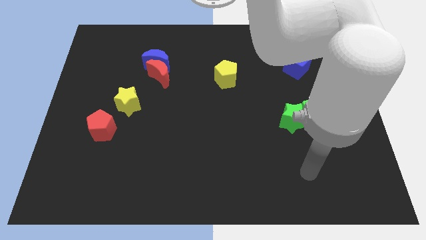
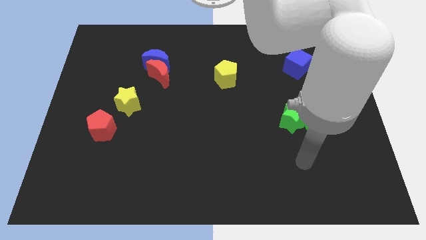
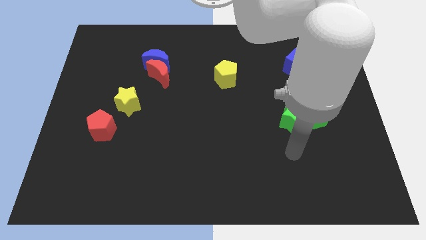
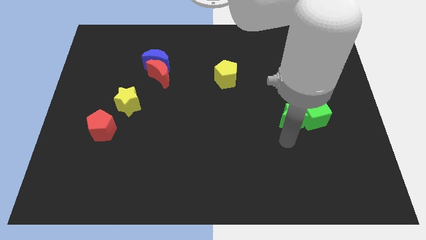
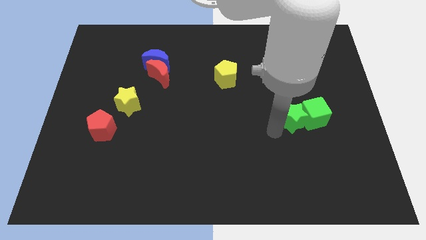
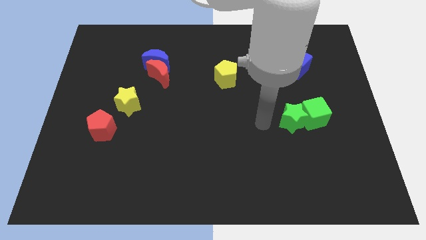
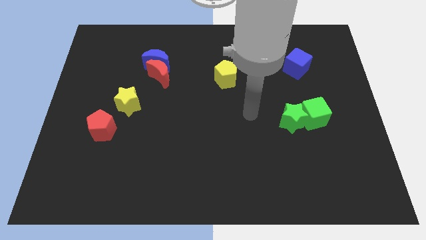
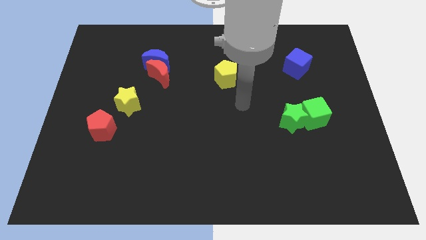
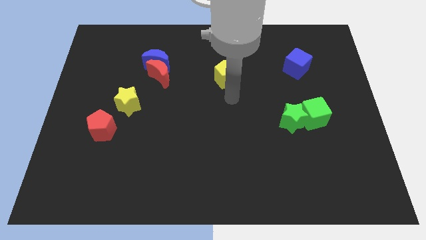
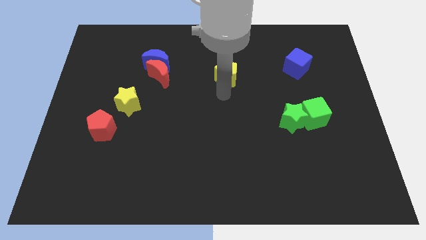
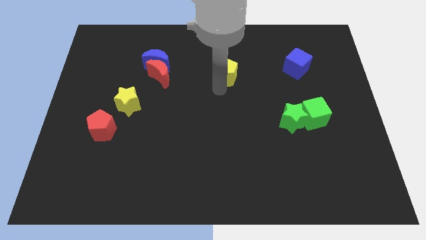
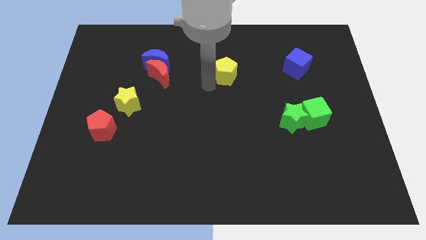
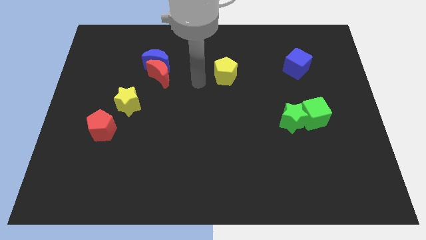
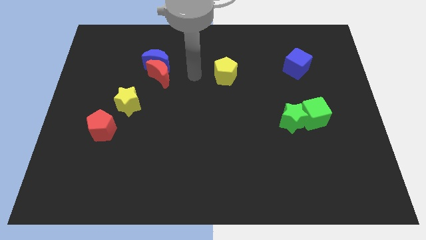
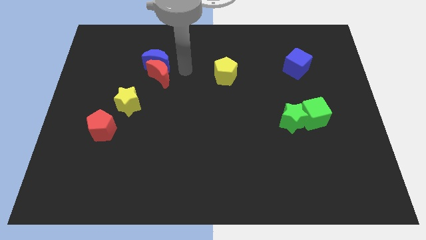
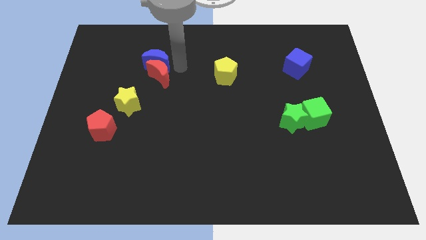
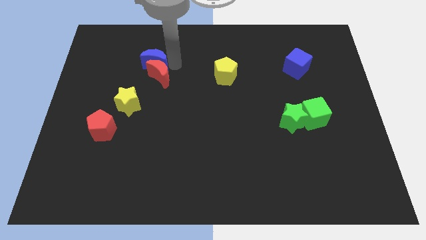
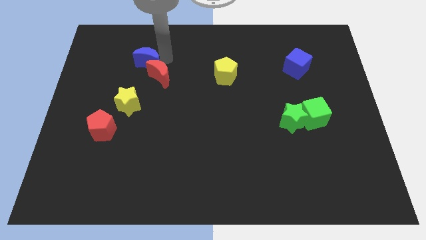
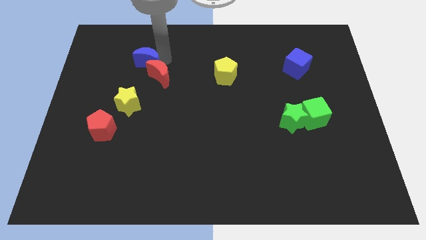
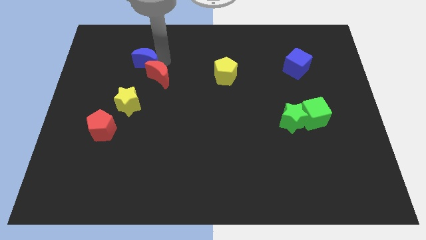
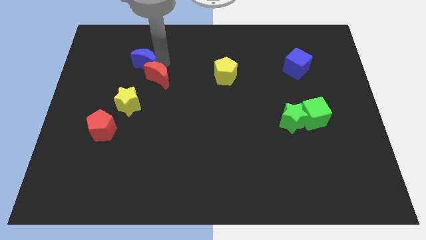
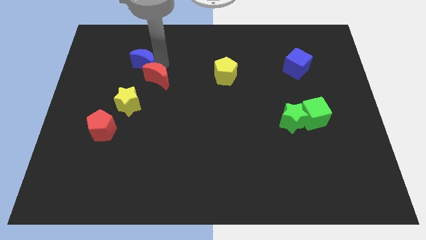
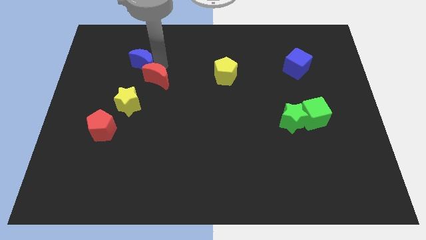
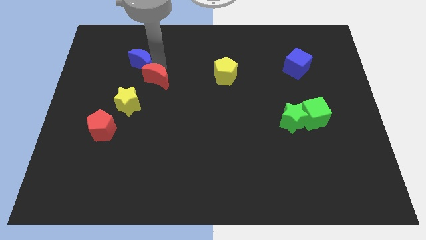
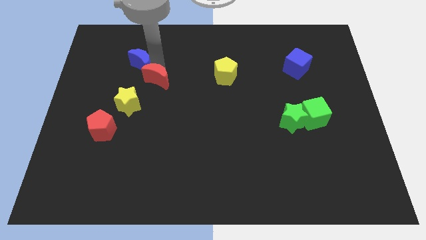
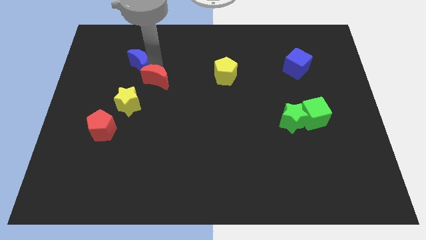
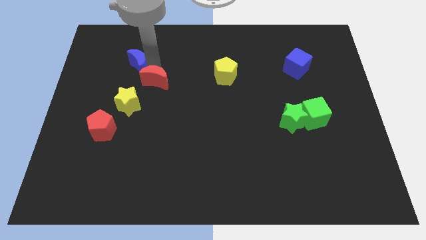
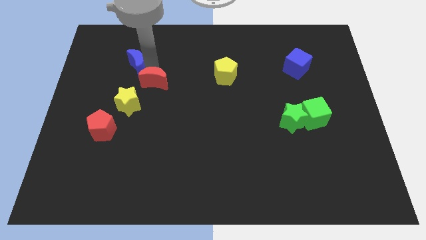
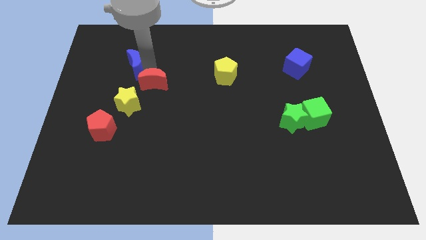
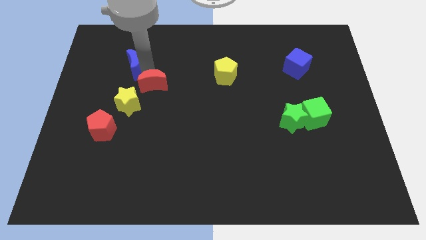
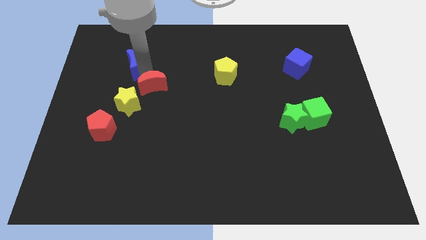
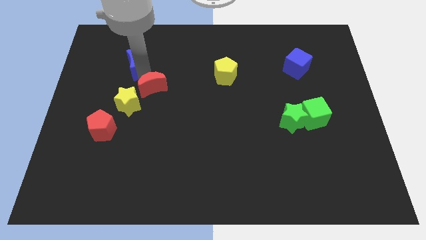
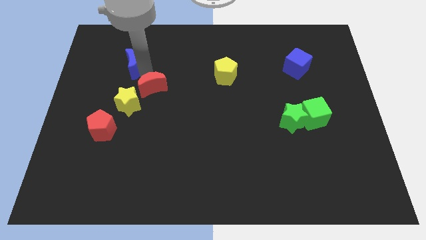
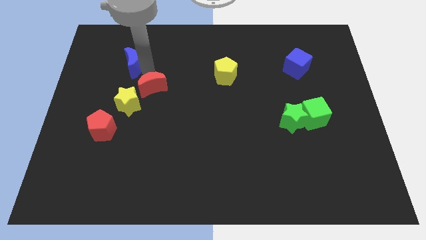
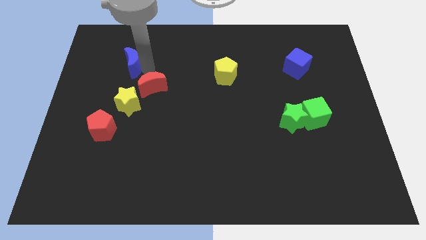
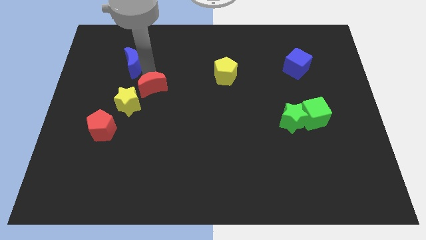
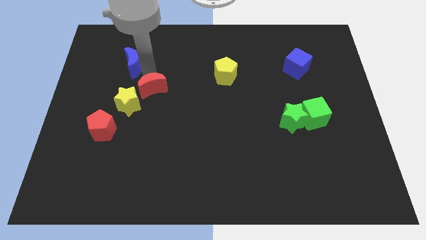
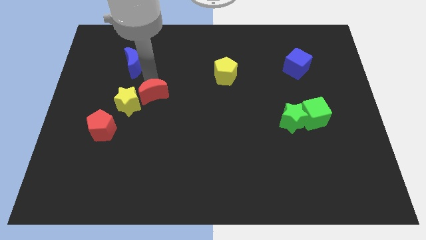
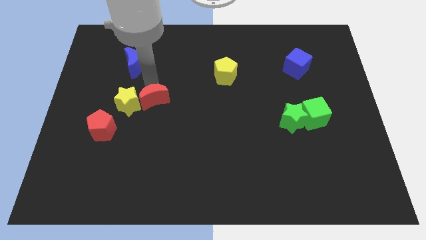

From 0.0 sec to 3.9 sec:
push the red moon somewhat downwards

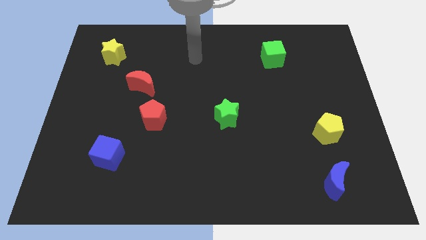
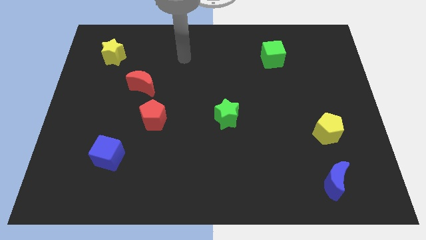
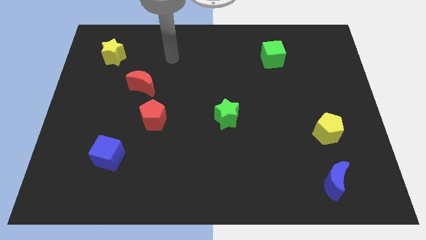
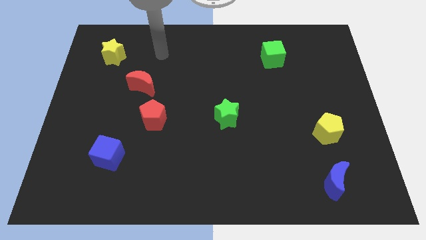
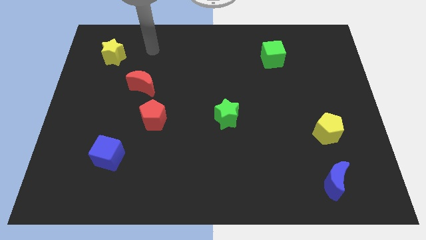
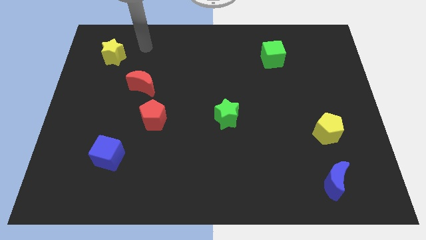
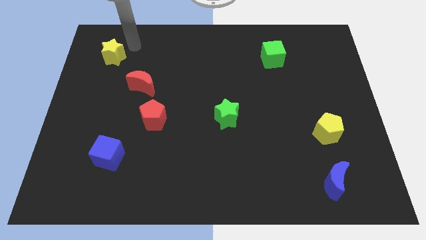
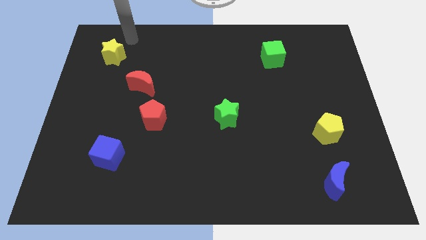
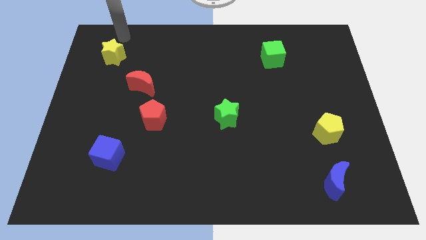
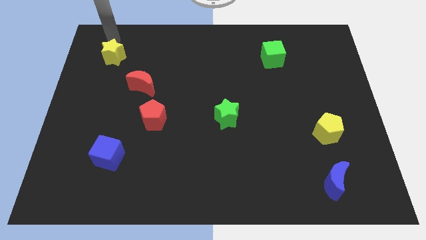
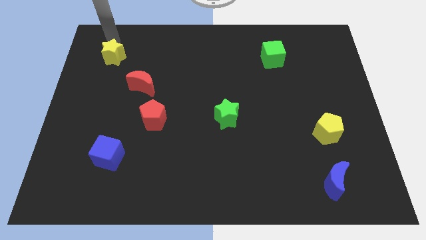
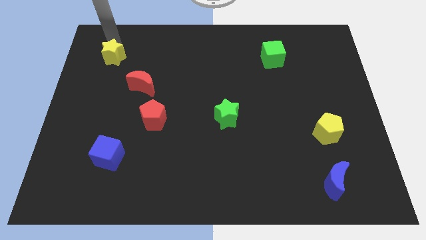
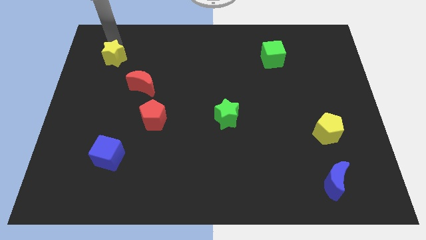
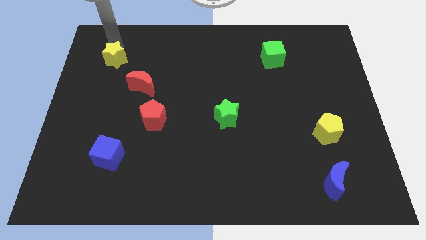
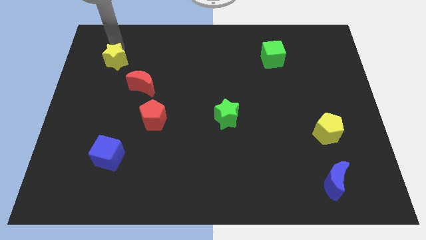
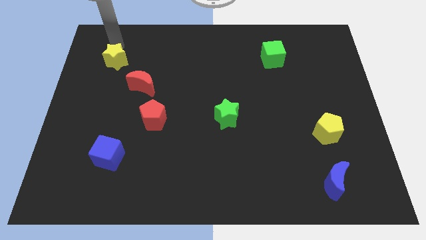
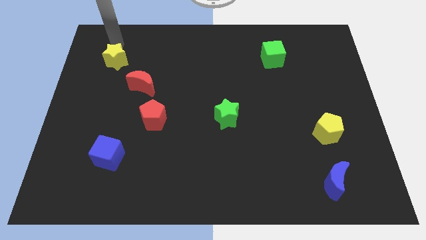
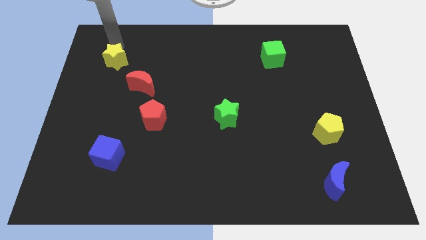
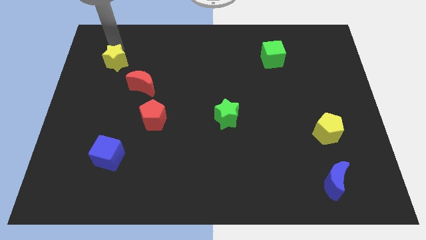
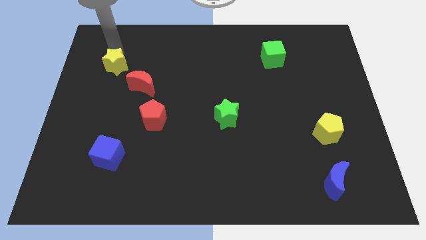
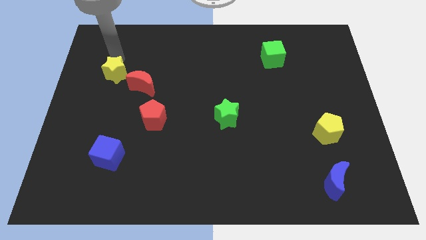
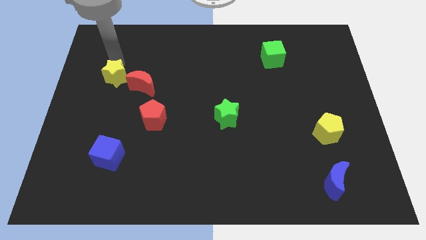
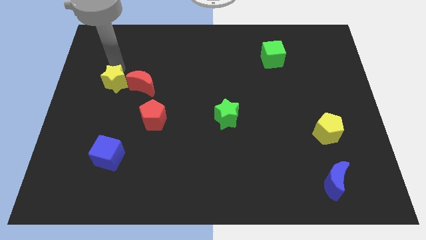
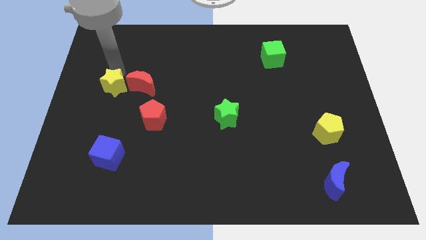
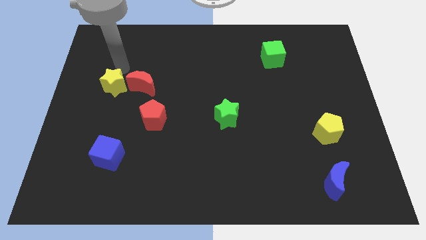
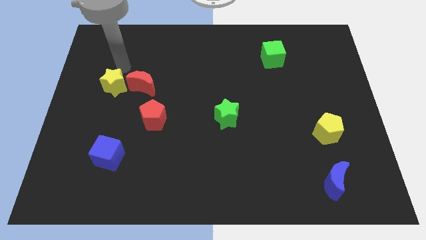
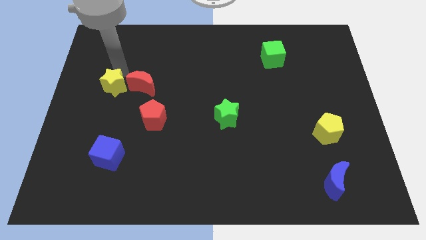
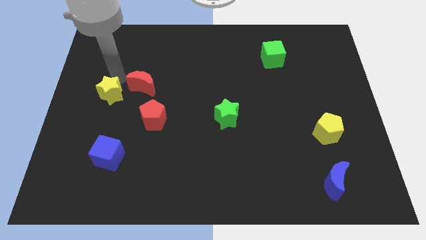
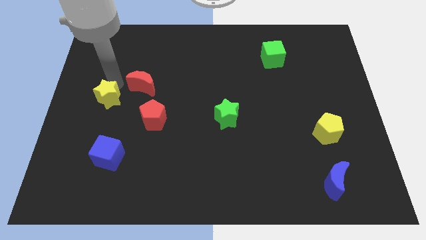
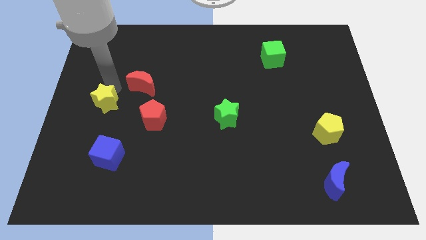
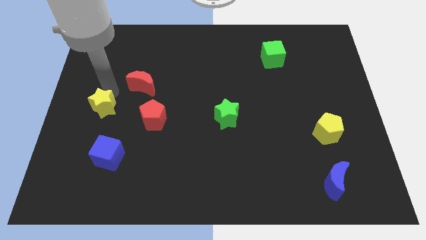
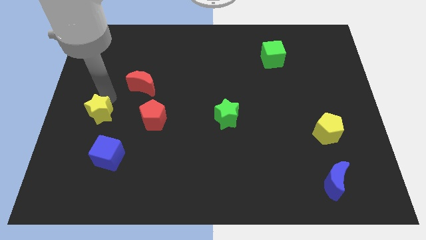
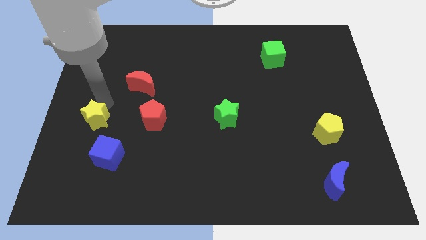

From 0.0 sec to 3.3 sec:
move the yellow star down

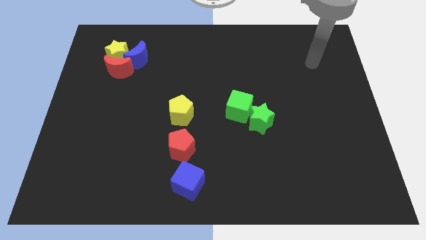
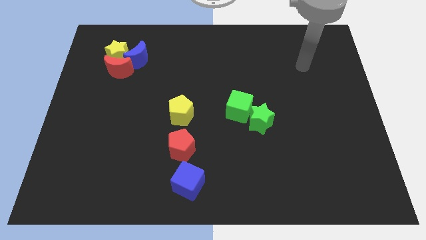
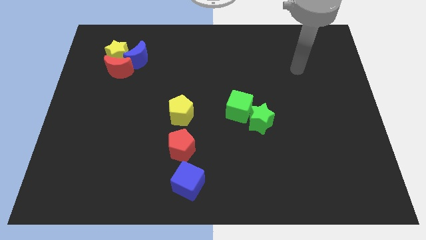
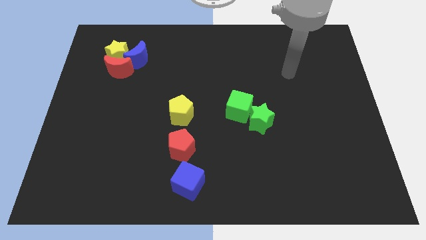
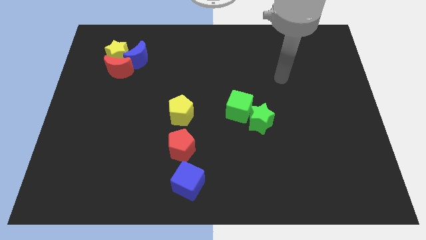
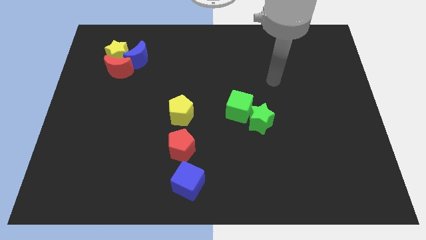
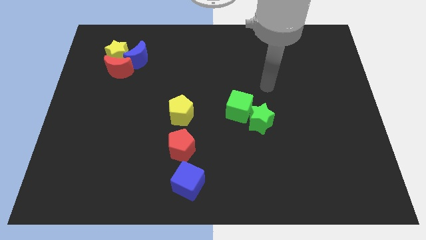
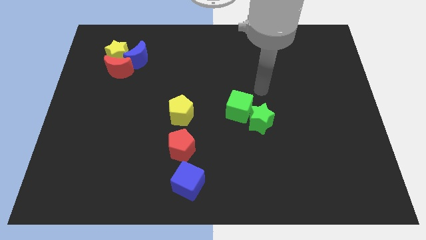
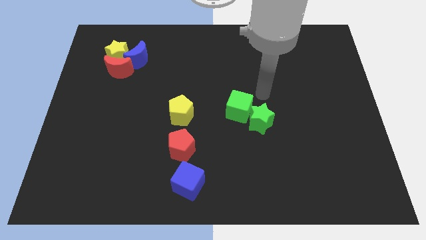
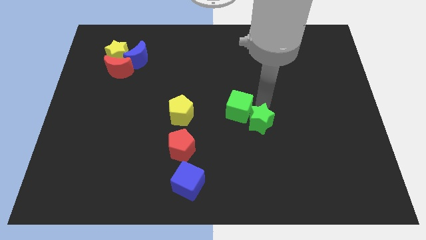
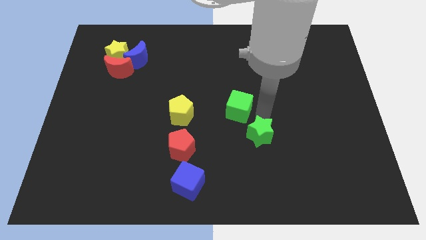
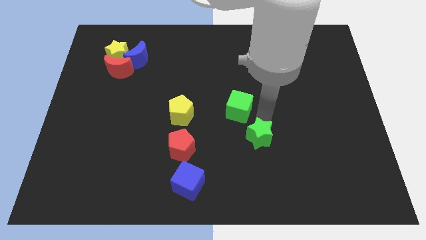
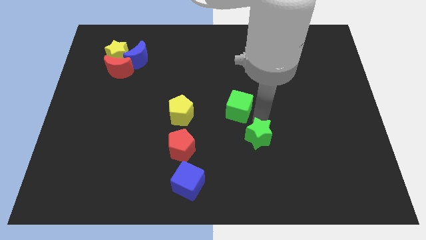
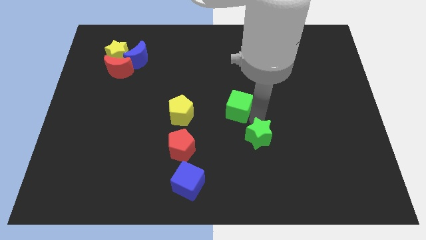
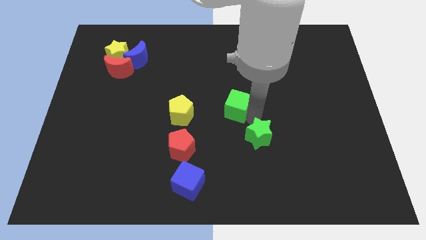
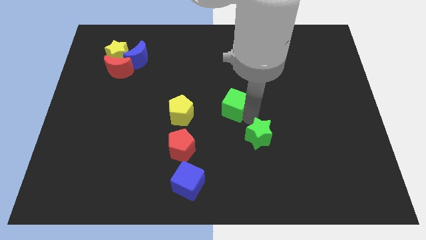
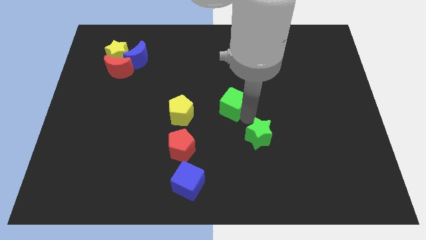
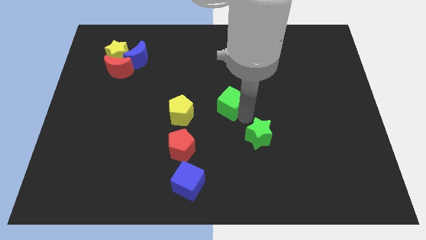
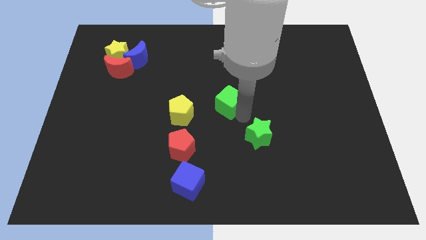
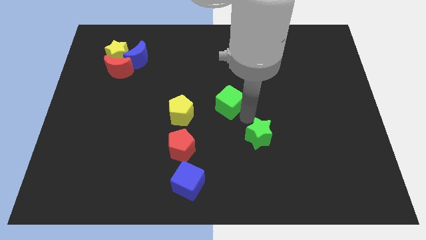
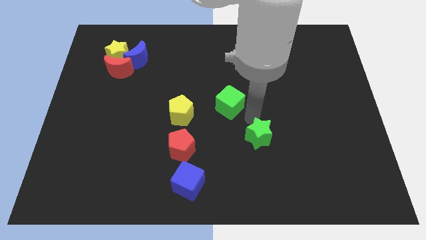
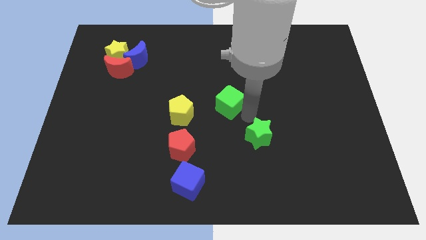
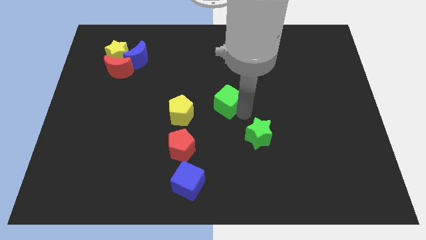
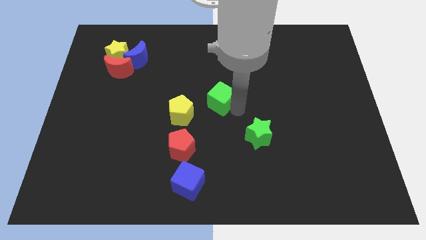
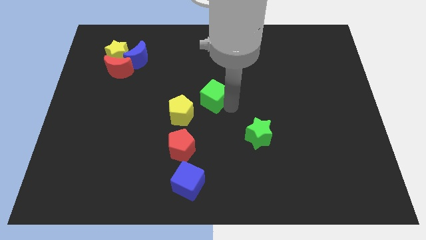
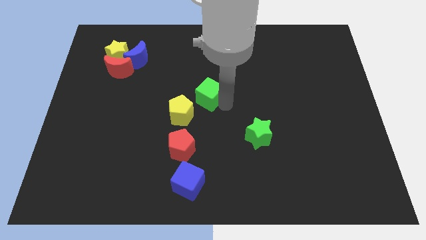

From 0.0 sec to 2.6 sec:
move the green cube somewhat diagonally upwards and to the left
